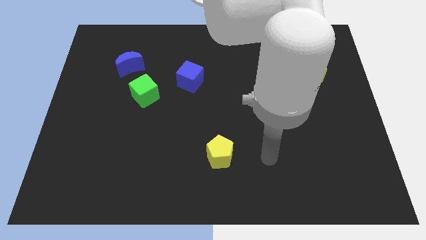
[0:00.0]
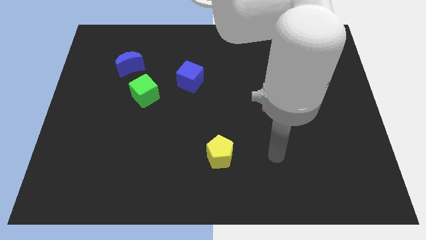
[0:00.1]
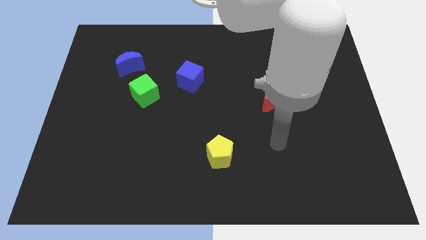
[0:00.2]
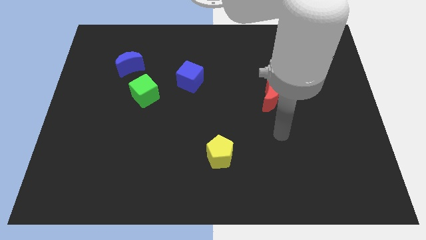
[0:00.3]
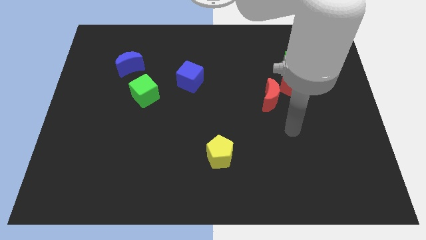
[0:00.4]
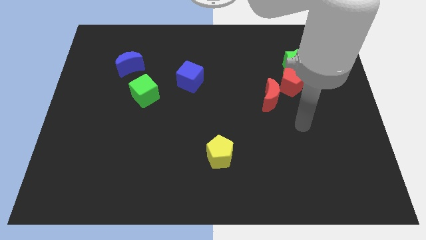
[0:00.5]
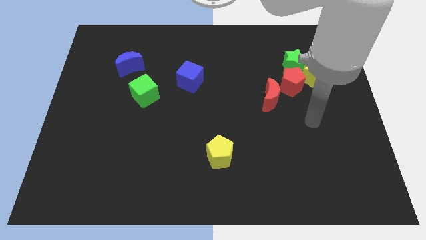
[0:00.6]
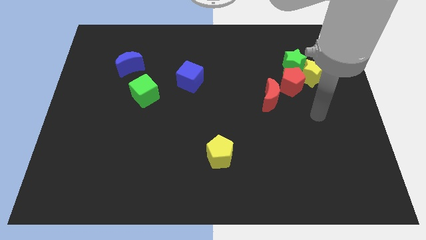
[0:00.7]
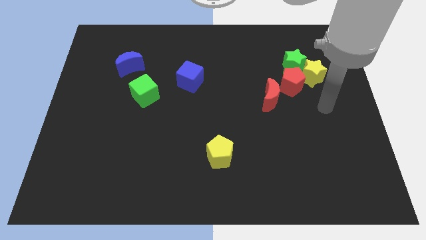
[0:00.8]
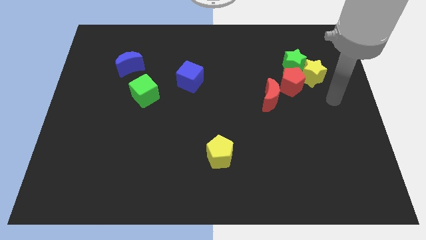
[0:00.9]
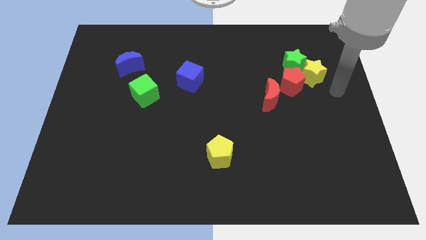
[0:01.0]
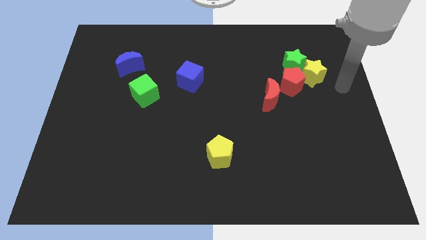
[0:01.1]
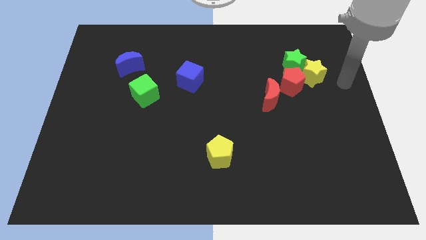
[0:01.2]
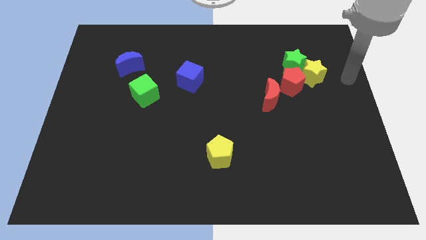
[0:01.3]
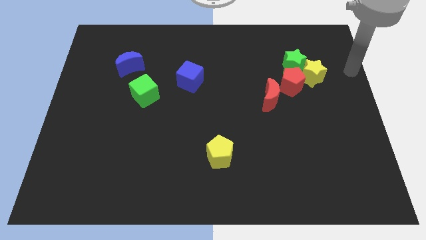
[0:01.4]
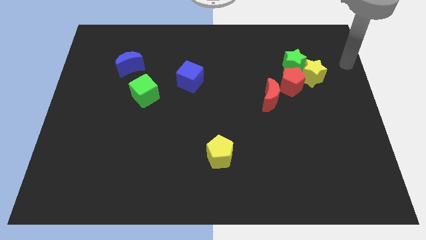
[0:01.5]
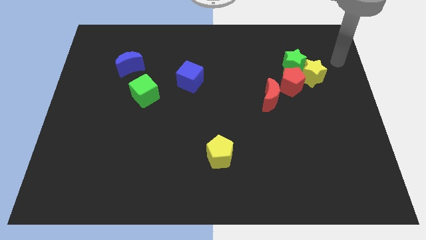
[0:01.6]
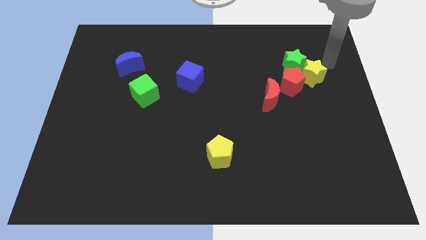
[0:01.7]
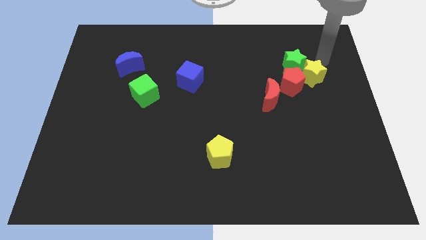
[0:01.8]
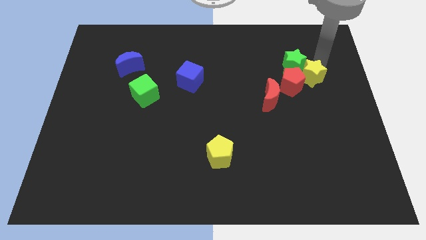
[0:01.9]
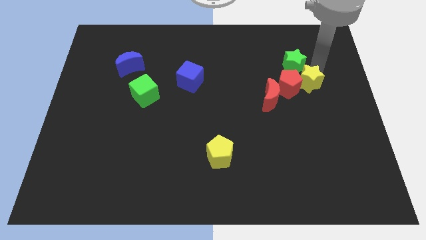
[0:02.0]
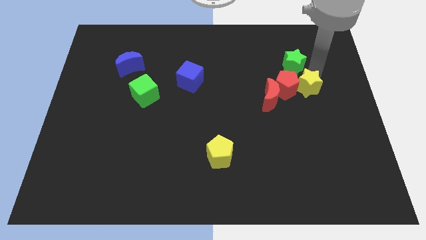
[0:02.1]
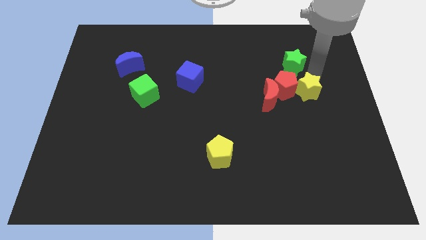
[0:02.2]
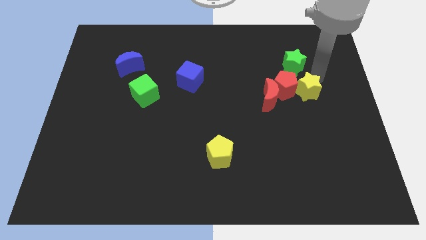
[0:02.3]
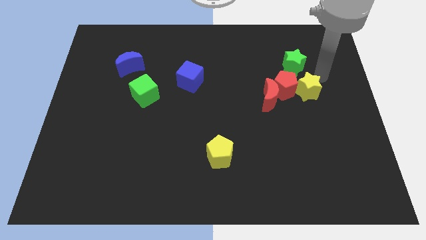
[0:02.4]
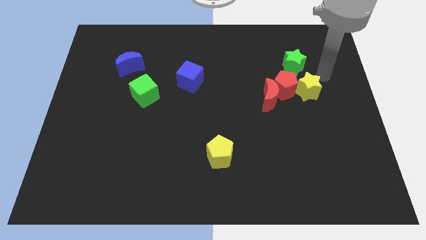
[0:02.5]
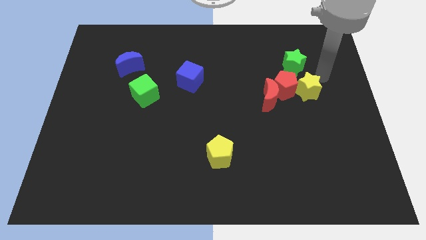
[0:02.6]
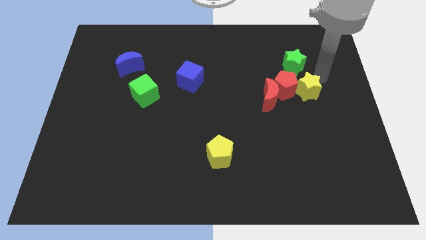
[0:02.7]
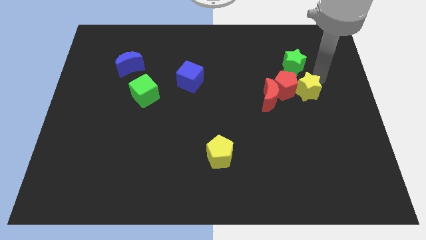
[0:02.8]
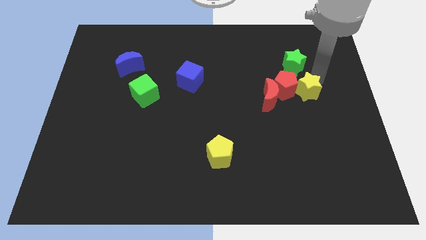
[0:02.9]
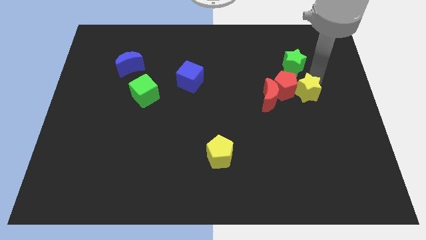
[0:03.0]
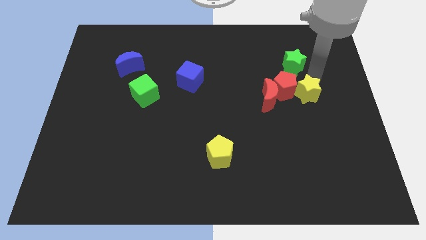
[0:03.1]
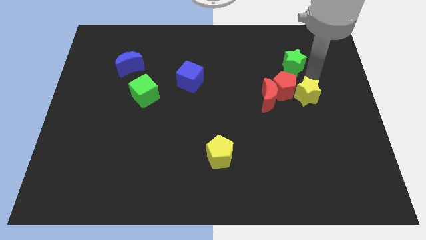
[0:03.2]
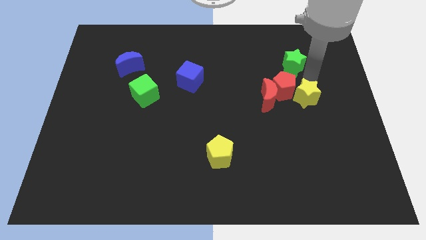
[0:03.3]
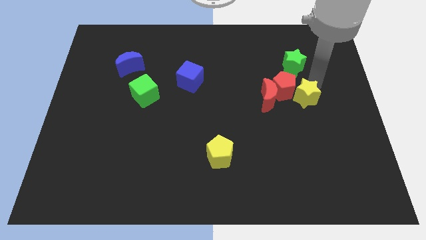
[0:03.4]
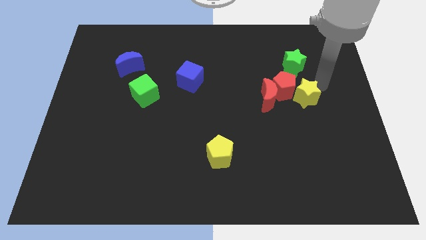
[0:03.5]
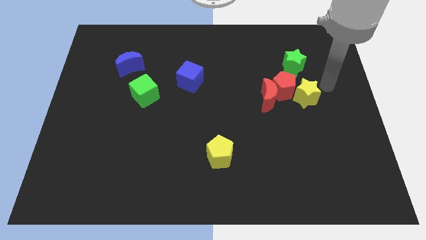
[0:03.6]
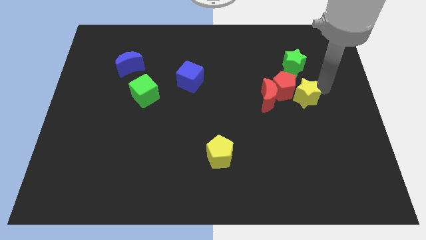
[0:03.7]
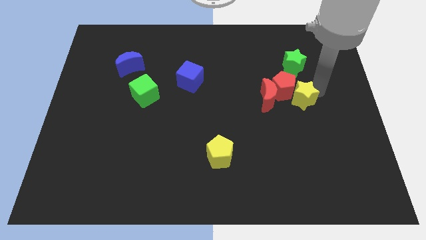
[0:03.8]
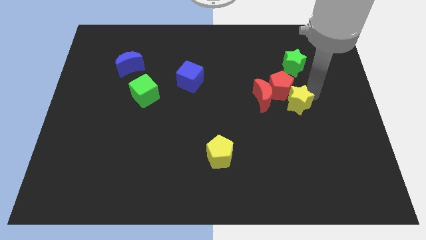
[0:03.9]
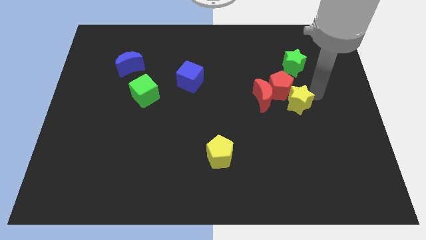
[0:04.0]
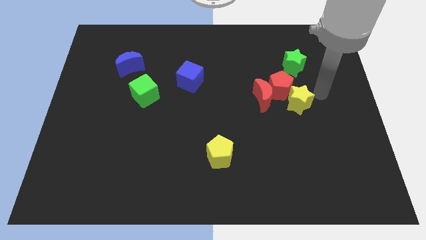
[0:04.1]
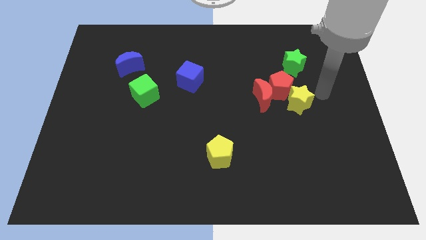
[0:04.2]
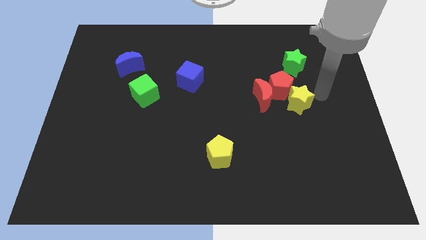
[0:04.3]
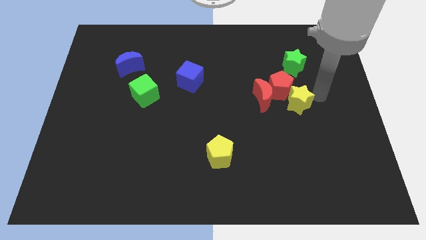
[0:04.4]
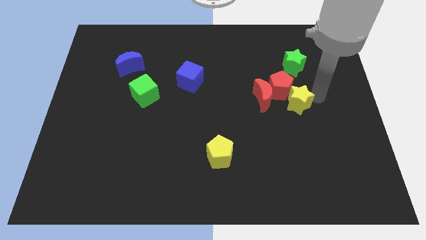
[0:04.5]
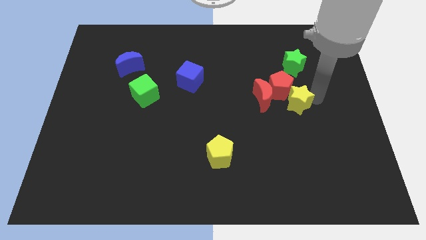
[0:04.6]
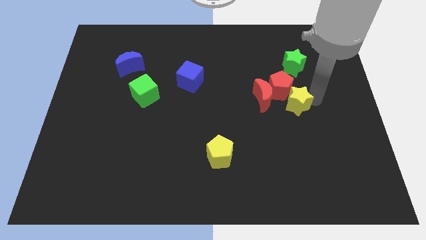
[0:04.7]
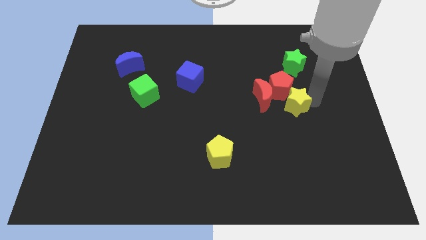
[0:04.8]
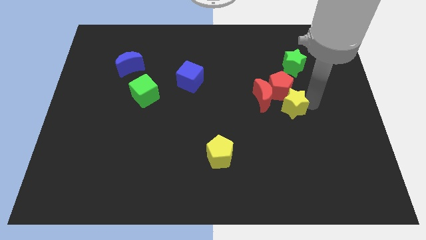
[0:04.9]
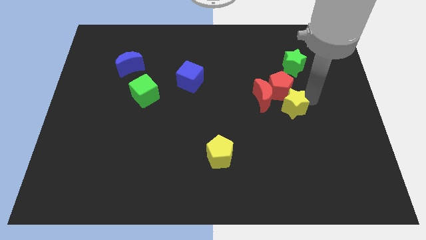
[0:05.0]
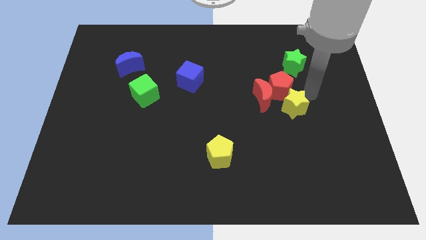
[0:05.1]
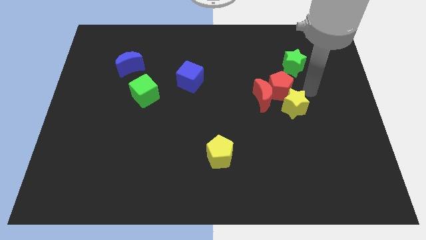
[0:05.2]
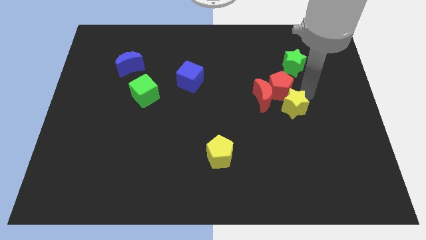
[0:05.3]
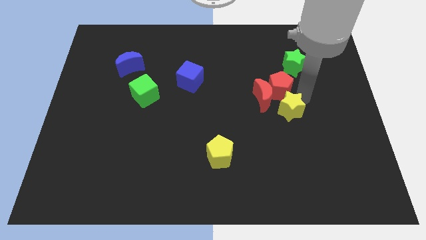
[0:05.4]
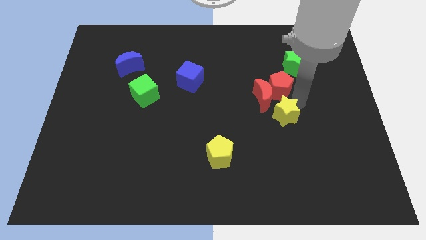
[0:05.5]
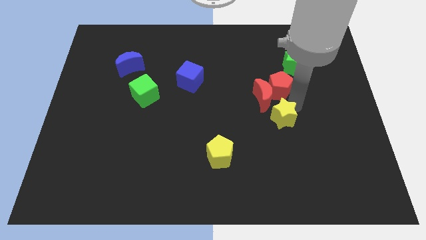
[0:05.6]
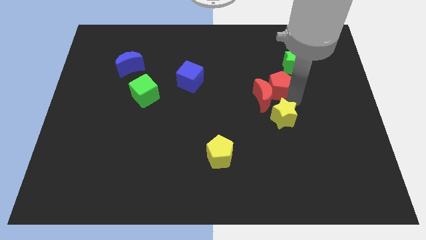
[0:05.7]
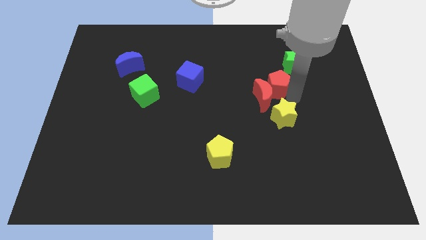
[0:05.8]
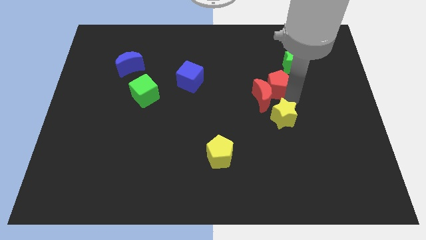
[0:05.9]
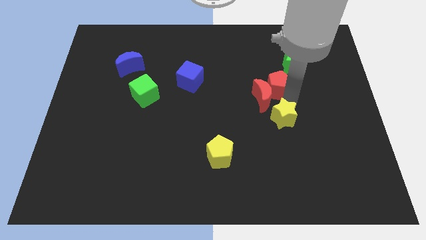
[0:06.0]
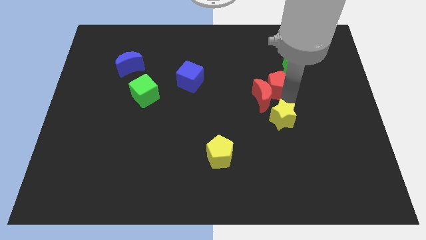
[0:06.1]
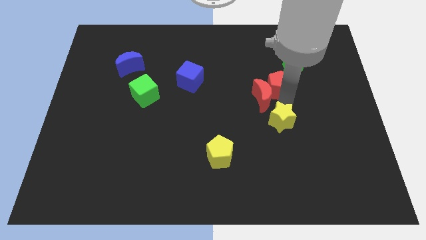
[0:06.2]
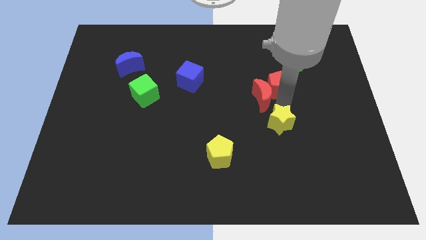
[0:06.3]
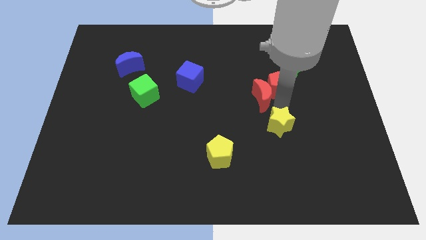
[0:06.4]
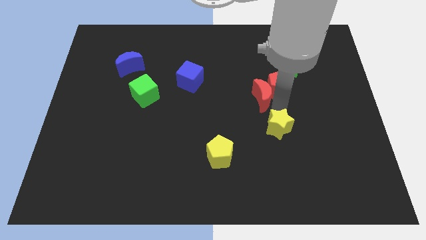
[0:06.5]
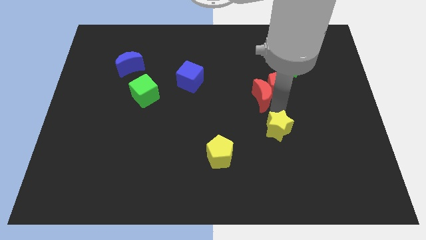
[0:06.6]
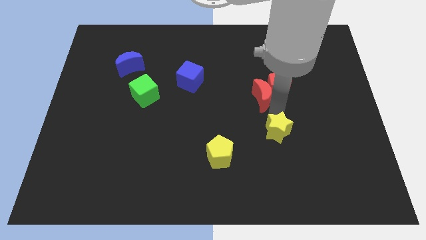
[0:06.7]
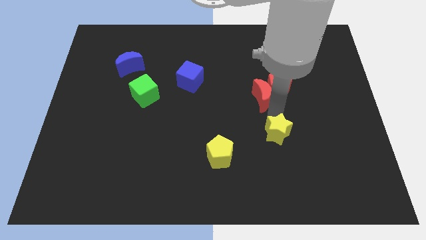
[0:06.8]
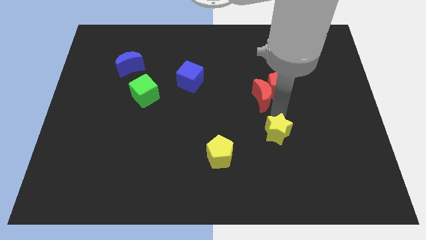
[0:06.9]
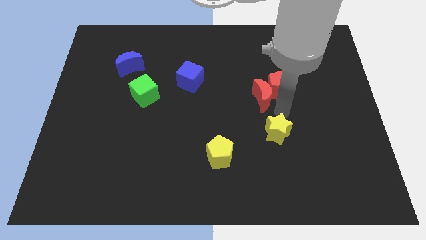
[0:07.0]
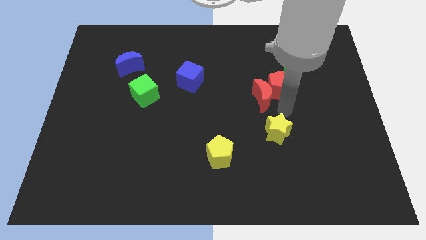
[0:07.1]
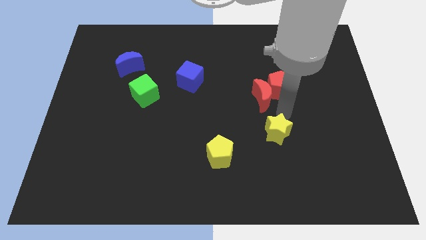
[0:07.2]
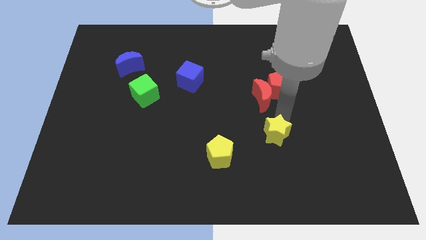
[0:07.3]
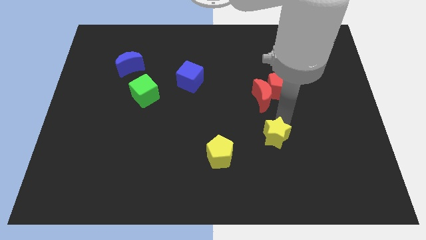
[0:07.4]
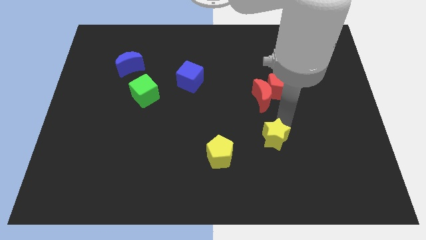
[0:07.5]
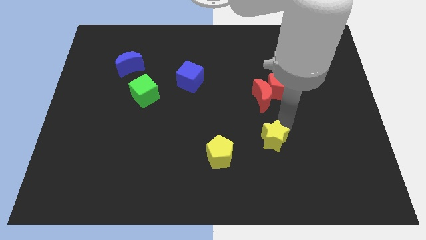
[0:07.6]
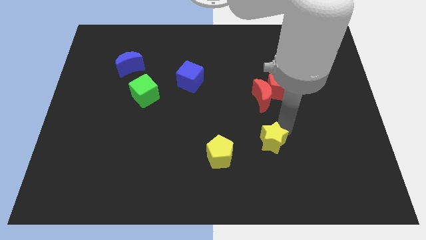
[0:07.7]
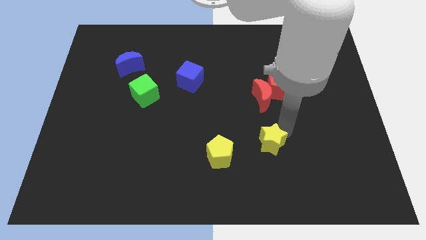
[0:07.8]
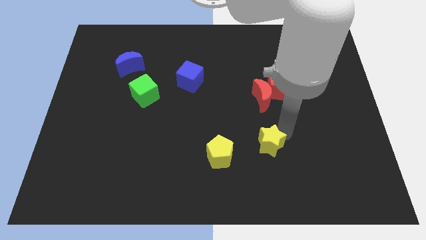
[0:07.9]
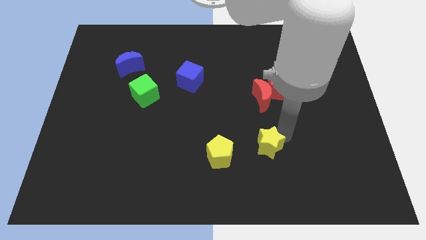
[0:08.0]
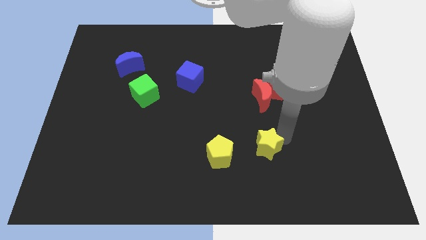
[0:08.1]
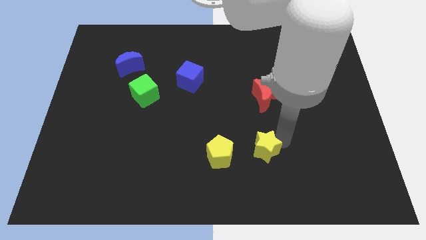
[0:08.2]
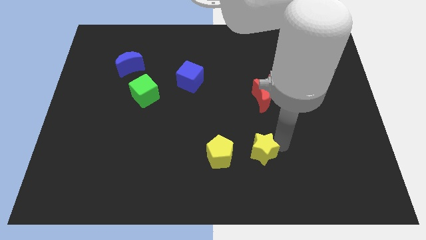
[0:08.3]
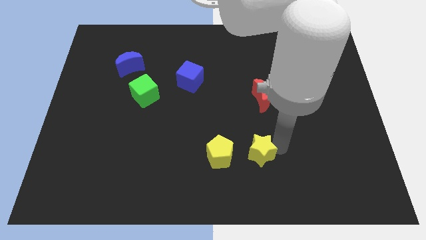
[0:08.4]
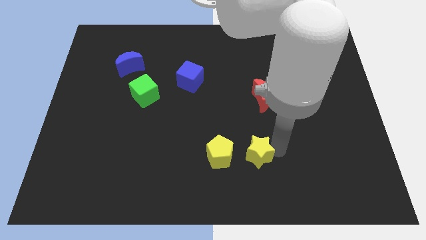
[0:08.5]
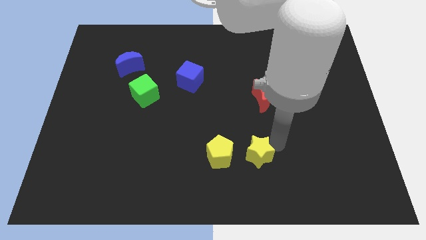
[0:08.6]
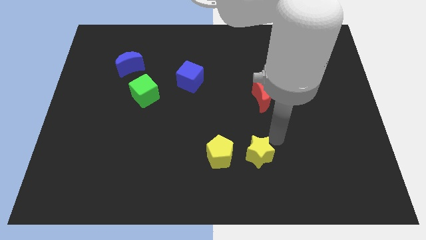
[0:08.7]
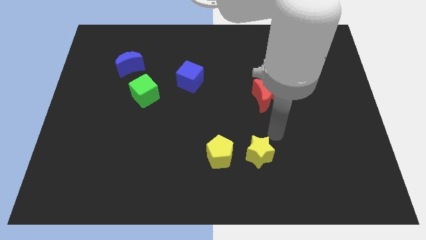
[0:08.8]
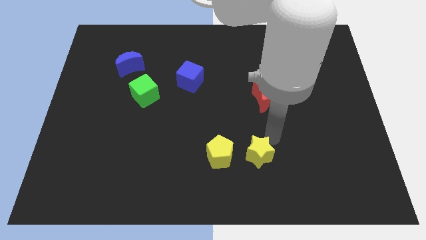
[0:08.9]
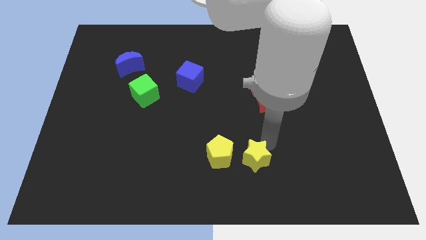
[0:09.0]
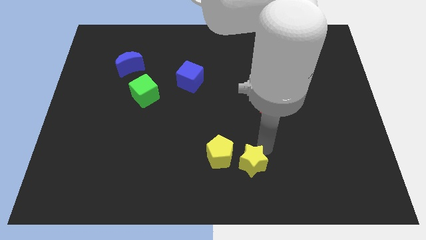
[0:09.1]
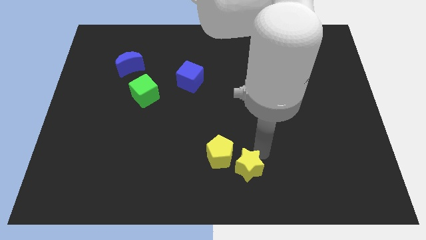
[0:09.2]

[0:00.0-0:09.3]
move the yellow star to the bottom
